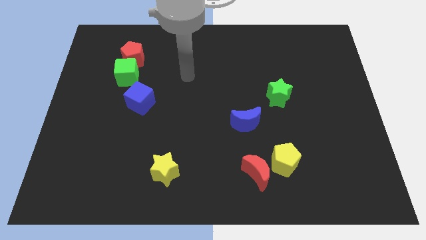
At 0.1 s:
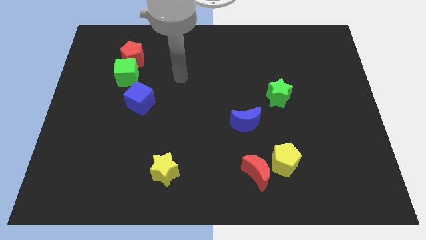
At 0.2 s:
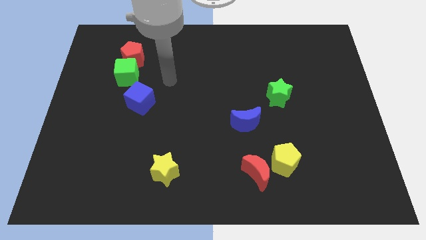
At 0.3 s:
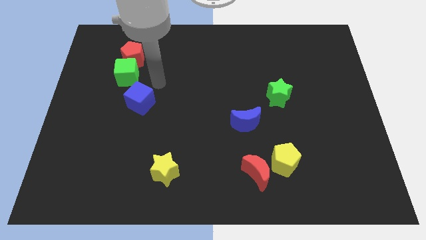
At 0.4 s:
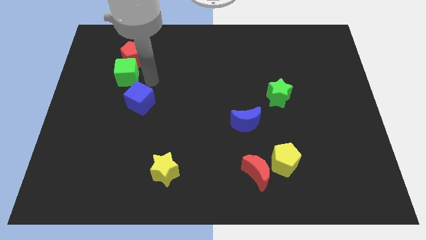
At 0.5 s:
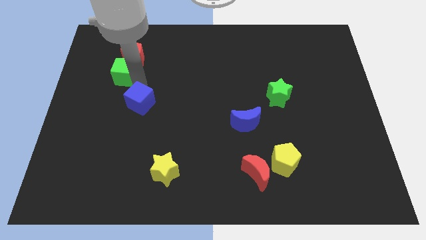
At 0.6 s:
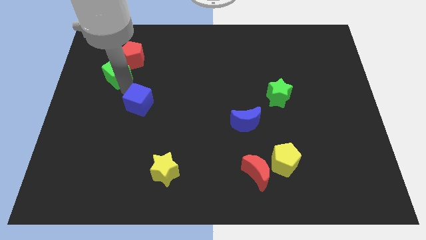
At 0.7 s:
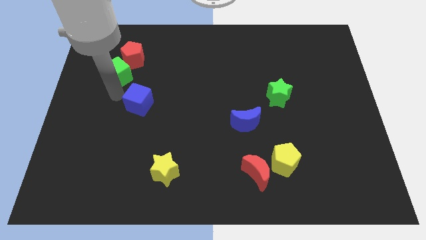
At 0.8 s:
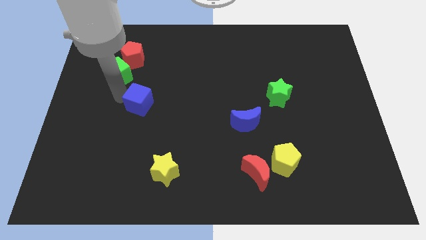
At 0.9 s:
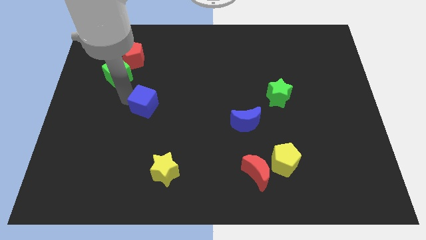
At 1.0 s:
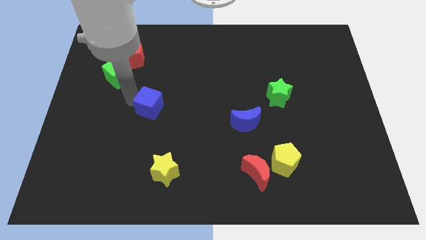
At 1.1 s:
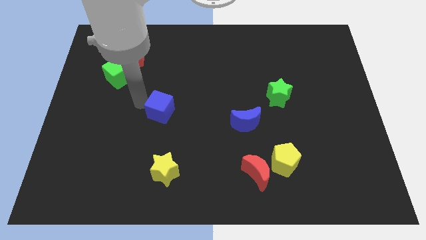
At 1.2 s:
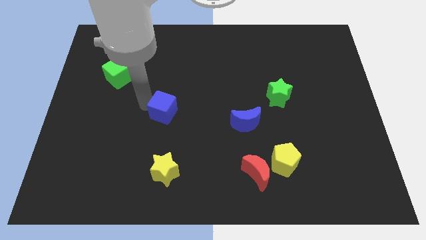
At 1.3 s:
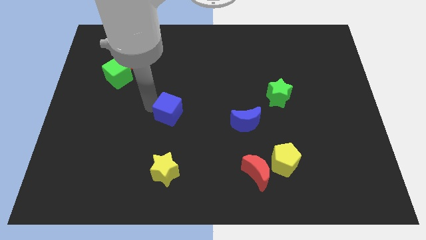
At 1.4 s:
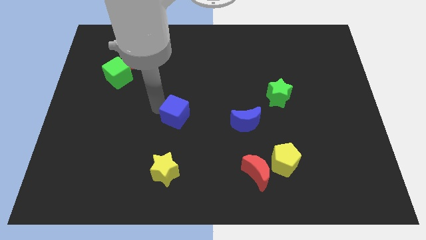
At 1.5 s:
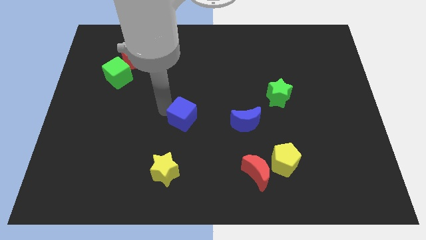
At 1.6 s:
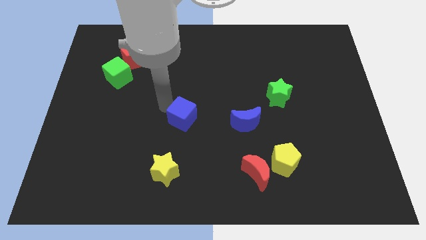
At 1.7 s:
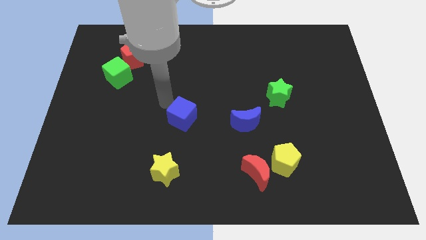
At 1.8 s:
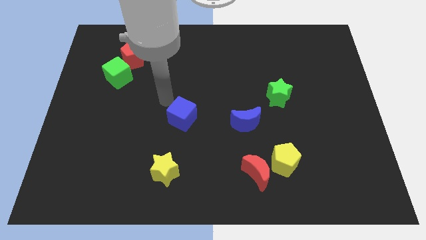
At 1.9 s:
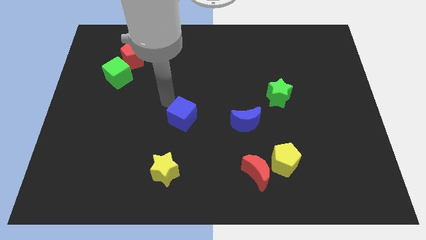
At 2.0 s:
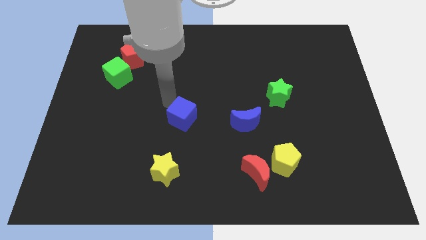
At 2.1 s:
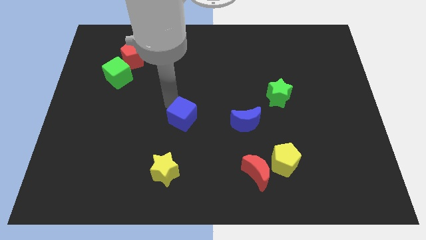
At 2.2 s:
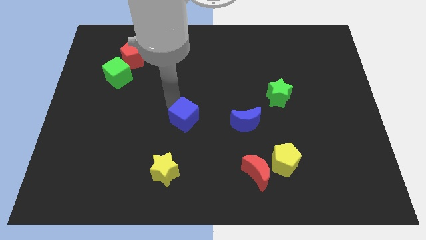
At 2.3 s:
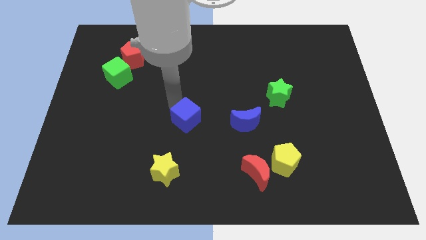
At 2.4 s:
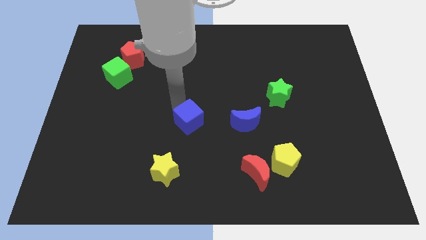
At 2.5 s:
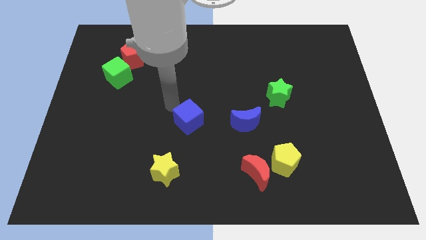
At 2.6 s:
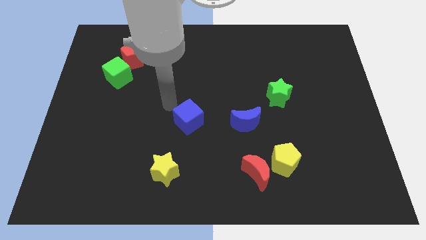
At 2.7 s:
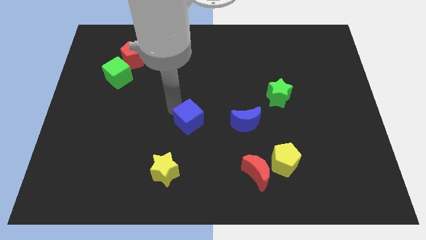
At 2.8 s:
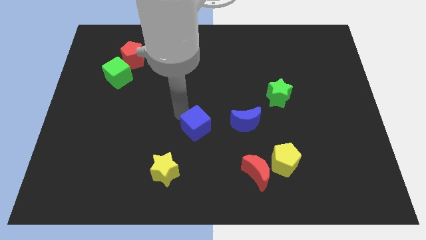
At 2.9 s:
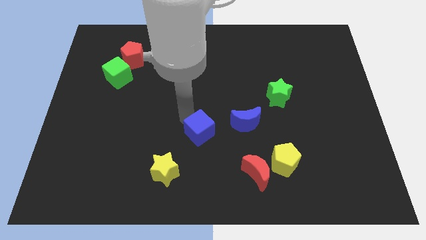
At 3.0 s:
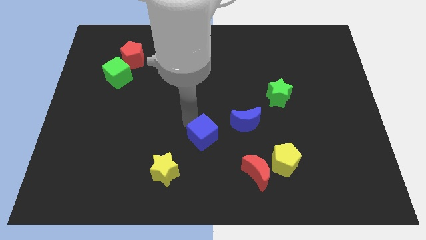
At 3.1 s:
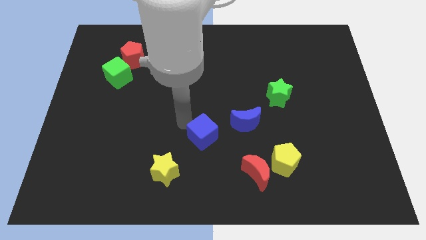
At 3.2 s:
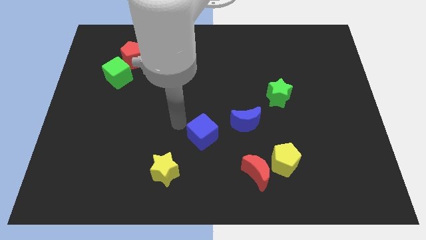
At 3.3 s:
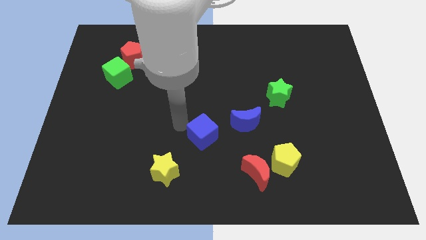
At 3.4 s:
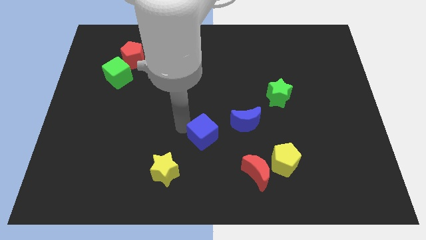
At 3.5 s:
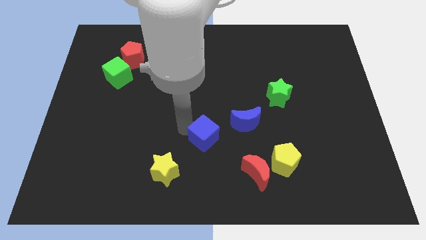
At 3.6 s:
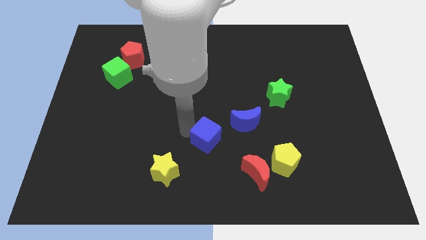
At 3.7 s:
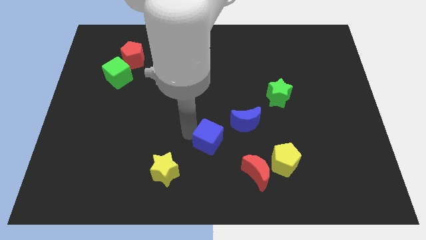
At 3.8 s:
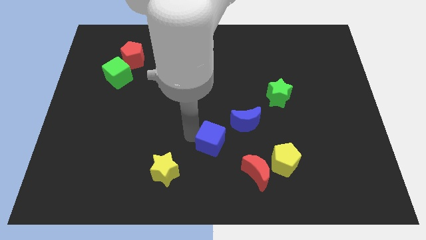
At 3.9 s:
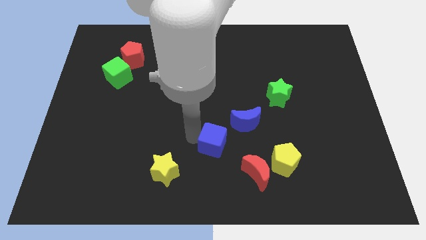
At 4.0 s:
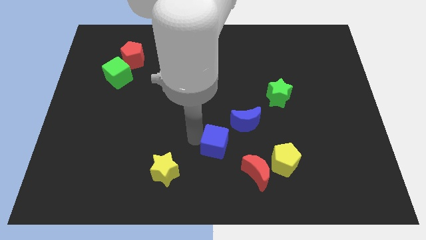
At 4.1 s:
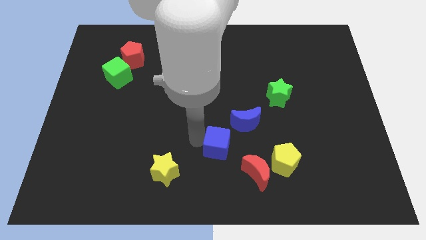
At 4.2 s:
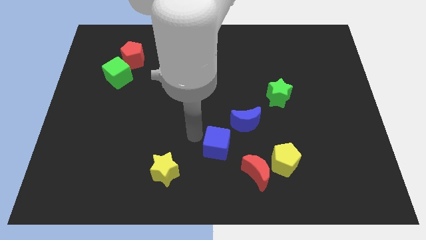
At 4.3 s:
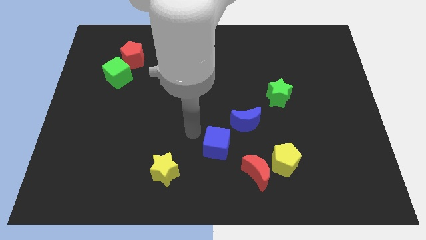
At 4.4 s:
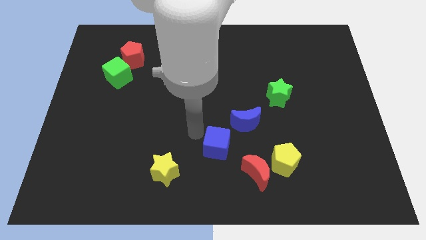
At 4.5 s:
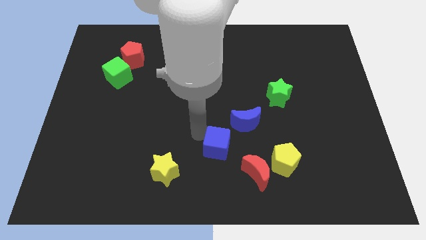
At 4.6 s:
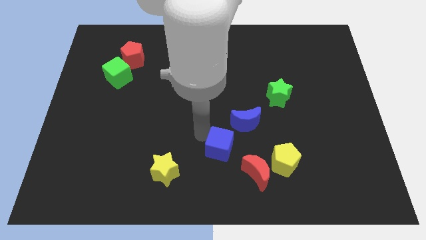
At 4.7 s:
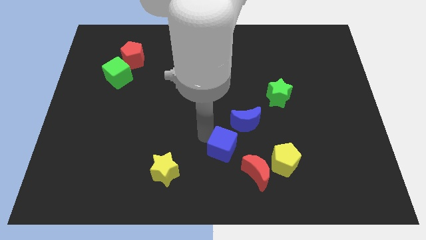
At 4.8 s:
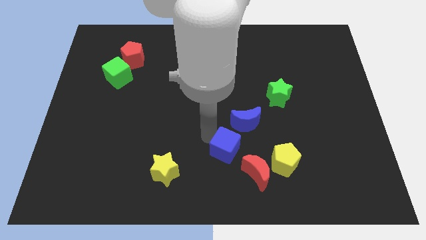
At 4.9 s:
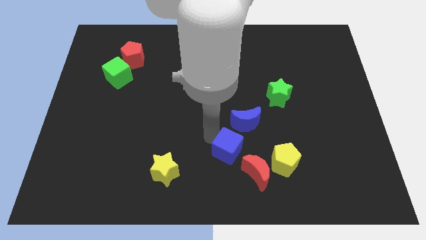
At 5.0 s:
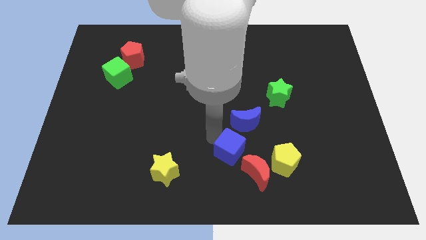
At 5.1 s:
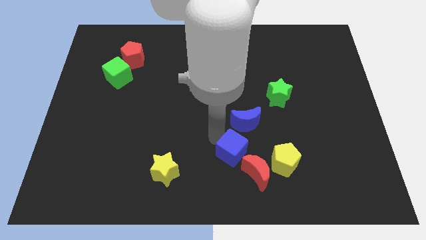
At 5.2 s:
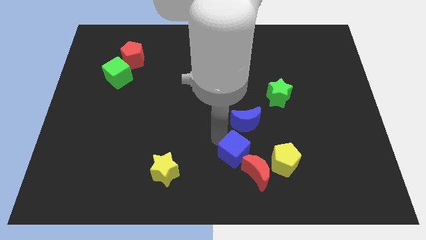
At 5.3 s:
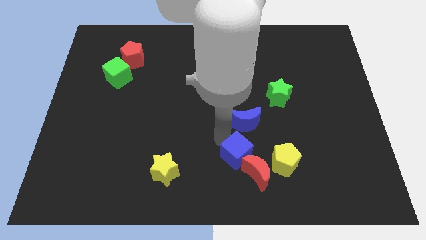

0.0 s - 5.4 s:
move the blue cube to the red moon

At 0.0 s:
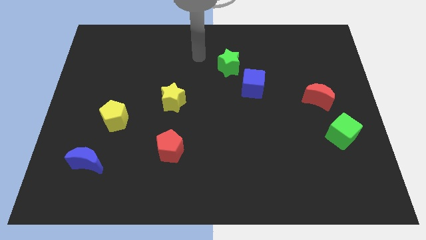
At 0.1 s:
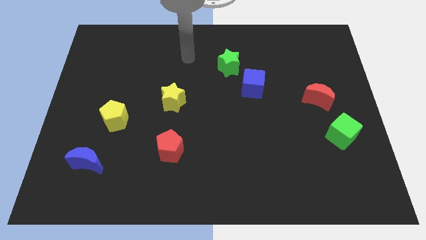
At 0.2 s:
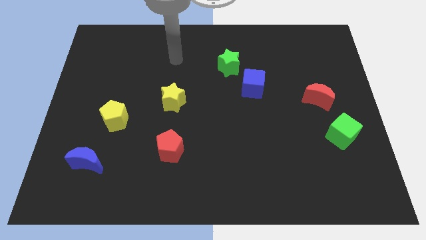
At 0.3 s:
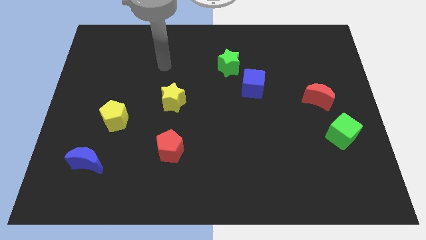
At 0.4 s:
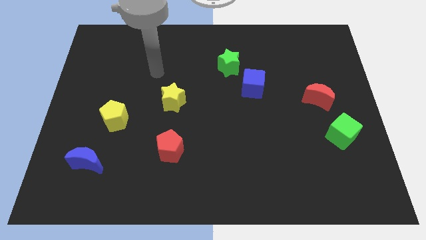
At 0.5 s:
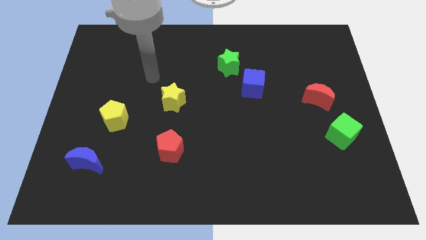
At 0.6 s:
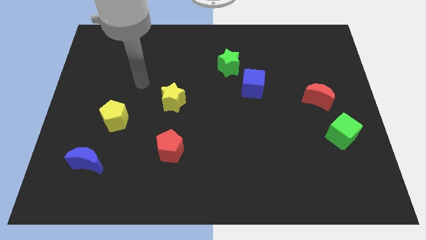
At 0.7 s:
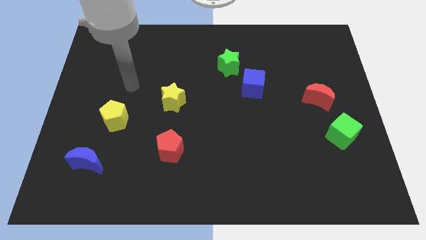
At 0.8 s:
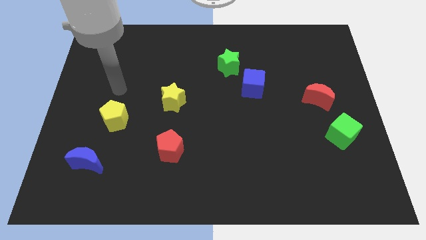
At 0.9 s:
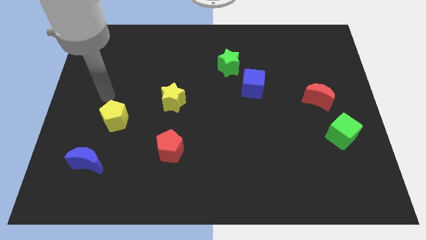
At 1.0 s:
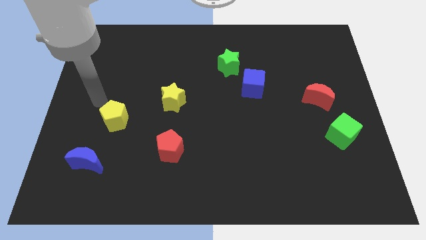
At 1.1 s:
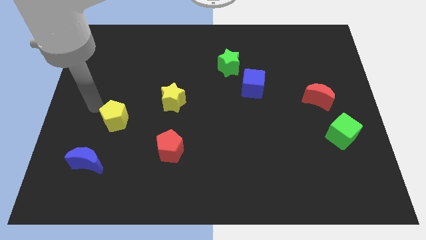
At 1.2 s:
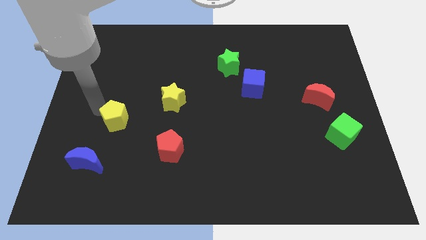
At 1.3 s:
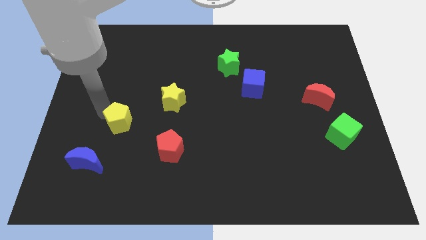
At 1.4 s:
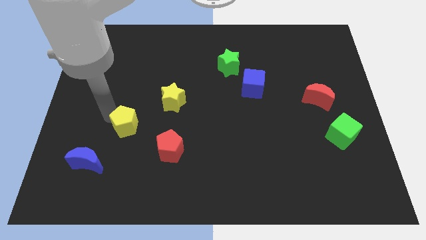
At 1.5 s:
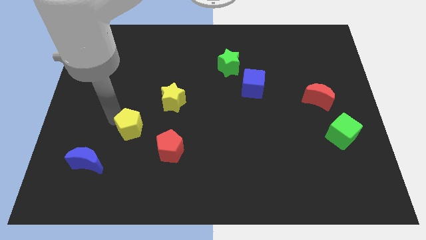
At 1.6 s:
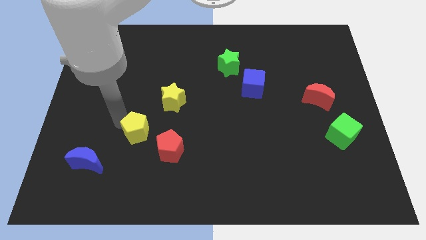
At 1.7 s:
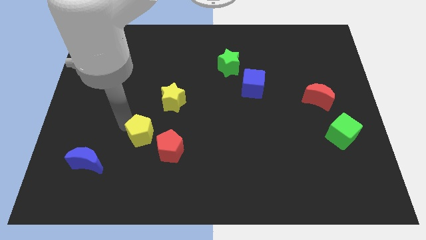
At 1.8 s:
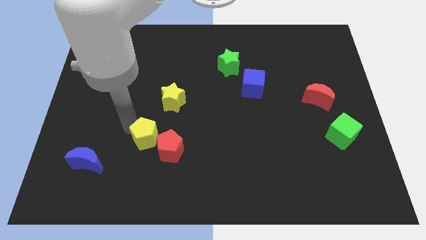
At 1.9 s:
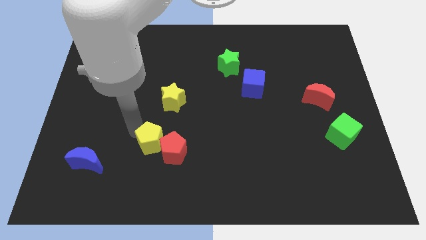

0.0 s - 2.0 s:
move the yellow pentagon next to the red pentagon

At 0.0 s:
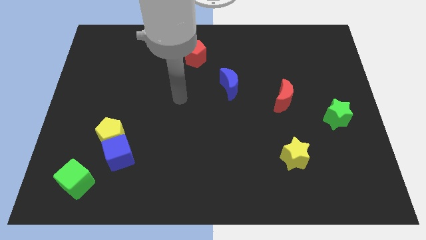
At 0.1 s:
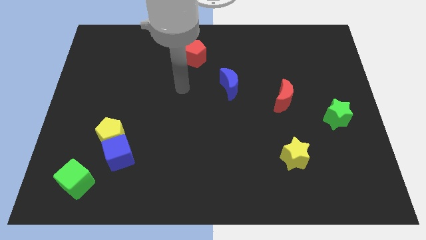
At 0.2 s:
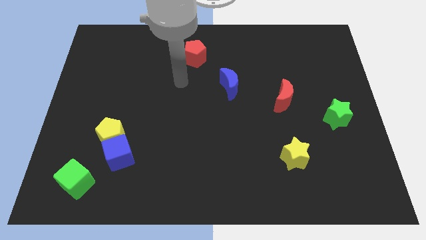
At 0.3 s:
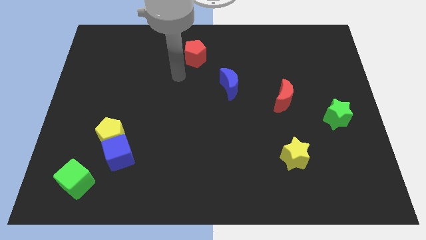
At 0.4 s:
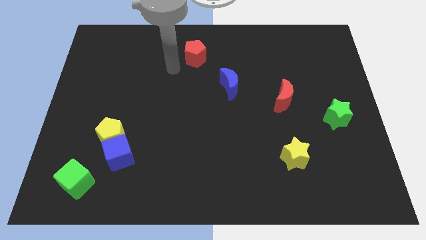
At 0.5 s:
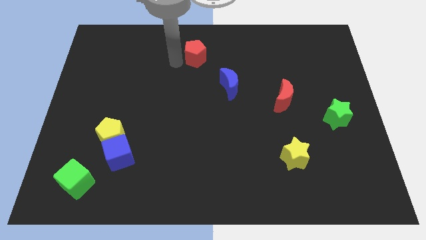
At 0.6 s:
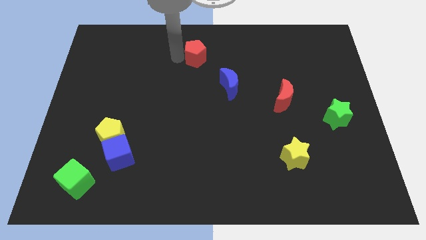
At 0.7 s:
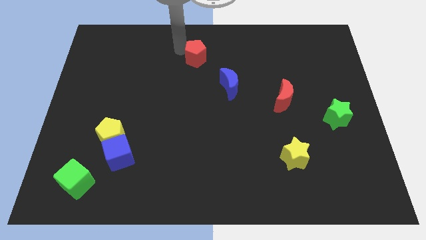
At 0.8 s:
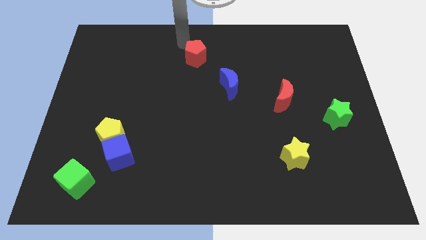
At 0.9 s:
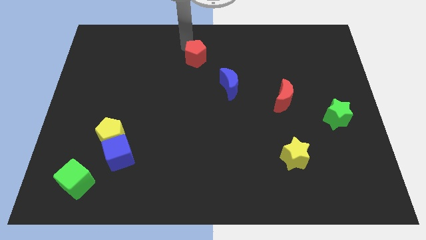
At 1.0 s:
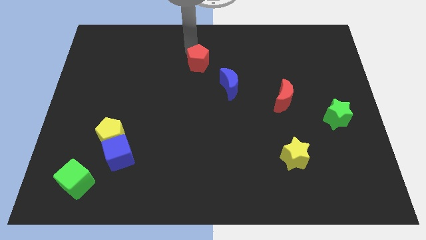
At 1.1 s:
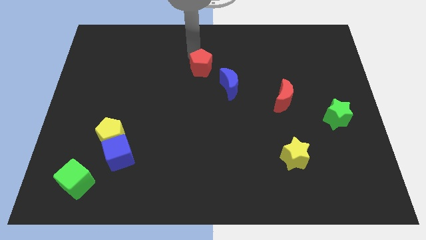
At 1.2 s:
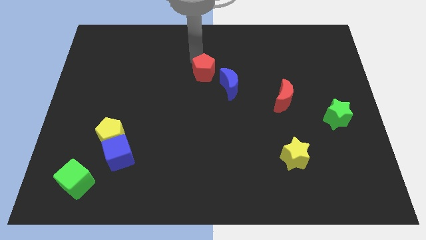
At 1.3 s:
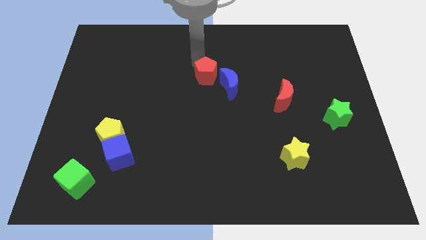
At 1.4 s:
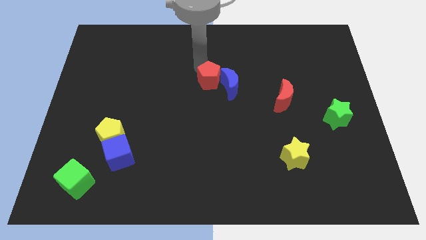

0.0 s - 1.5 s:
move the red pentagon towards the blue moon
